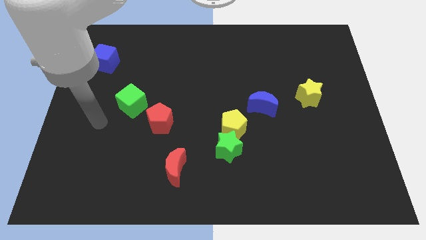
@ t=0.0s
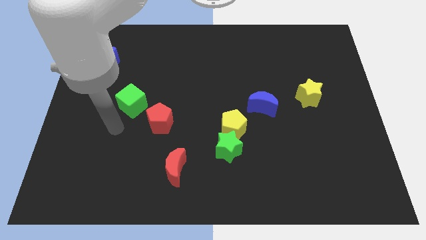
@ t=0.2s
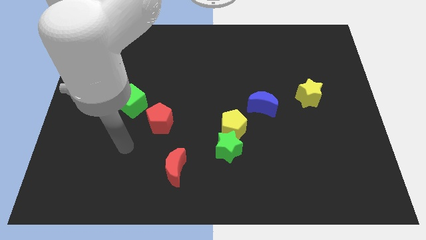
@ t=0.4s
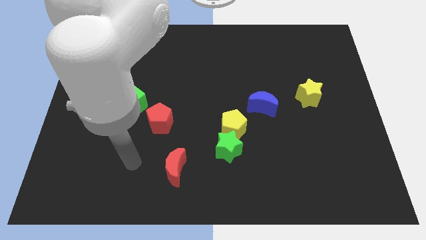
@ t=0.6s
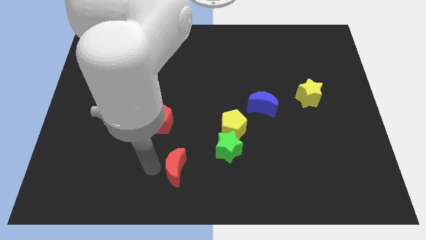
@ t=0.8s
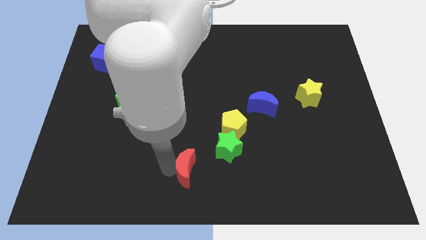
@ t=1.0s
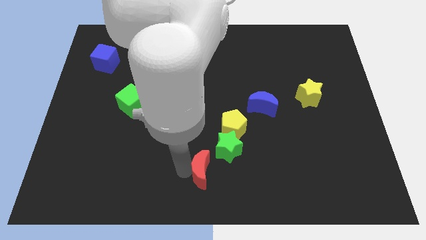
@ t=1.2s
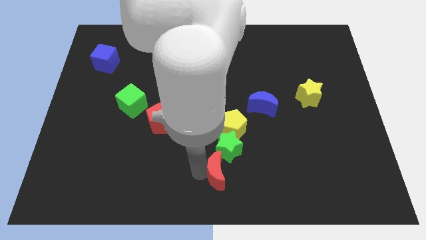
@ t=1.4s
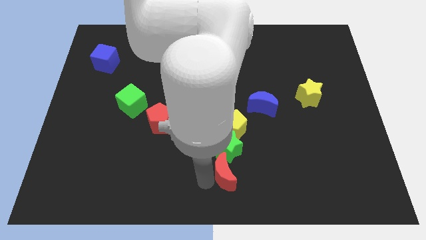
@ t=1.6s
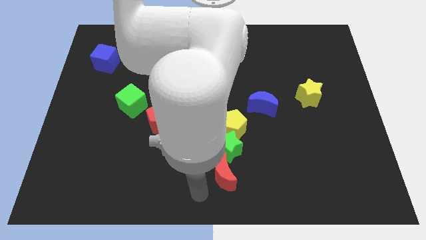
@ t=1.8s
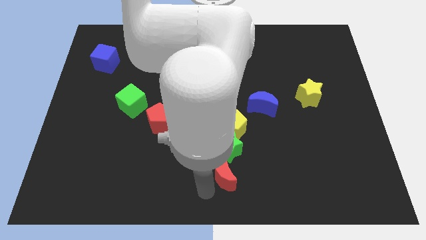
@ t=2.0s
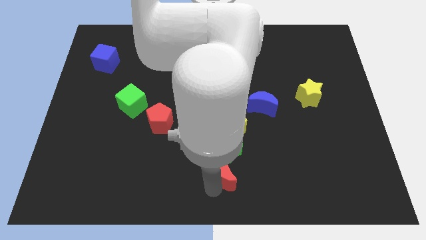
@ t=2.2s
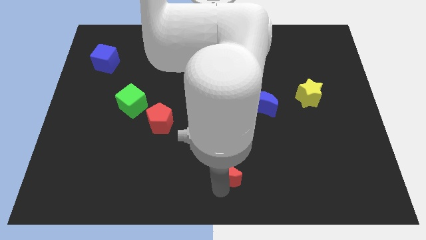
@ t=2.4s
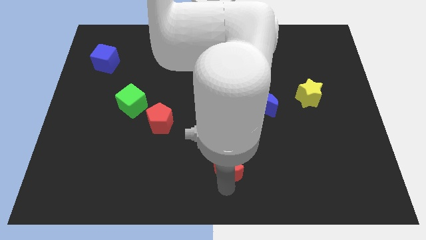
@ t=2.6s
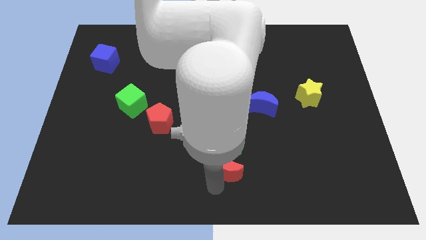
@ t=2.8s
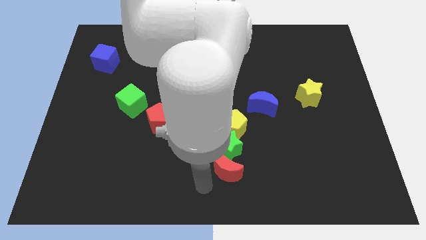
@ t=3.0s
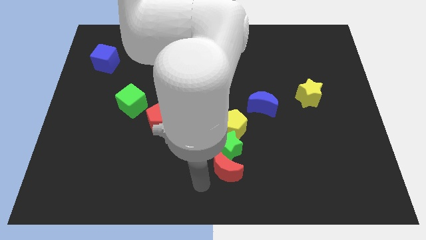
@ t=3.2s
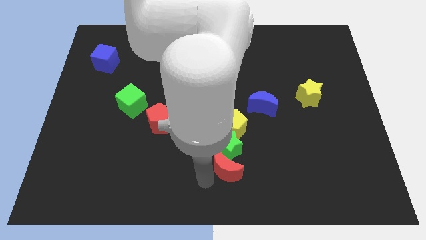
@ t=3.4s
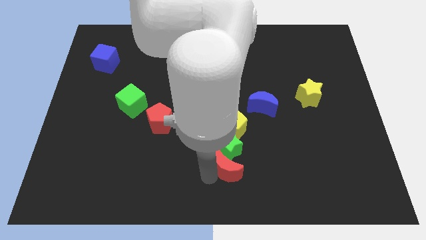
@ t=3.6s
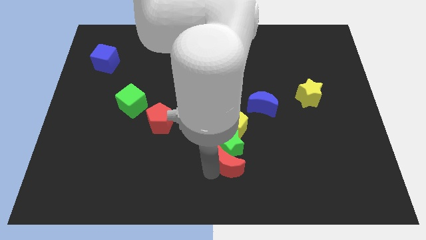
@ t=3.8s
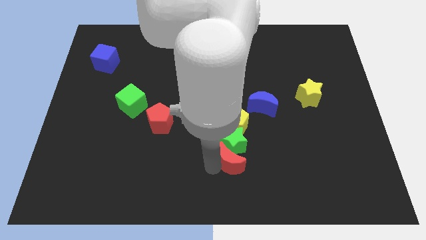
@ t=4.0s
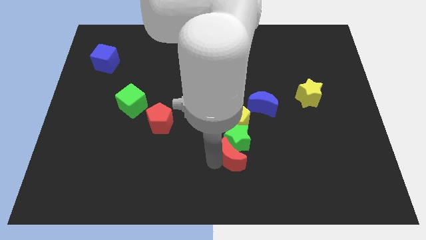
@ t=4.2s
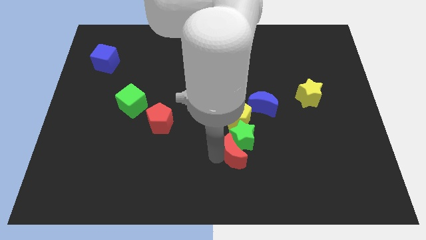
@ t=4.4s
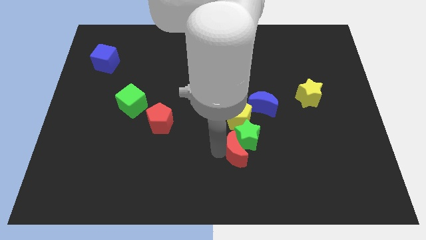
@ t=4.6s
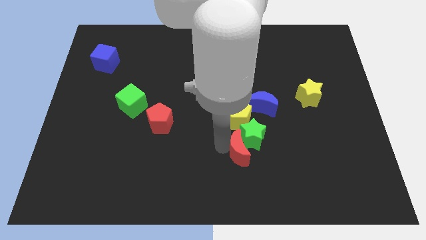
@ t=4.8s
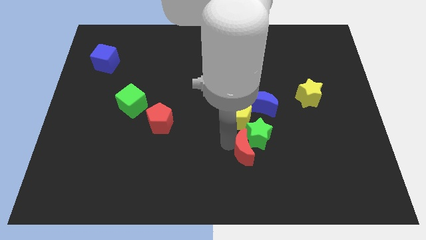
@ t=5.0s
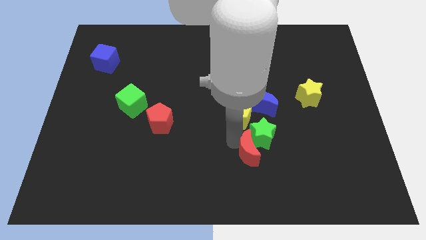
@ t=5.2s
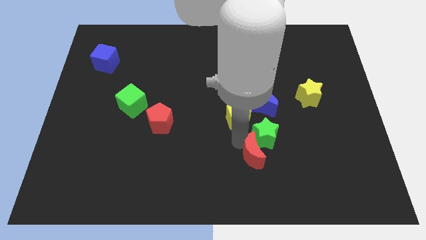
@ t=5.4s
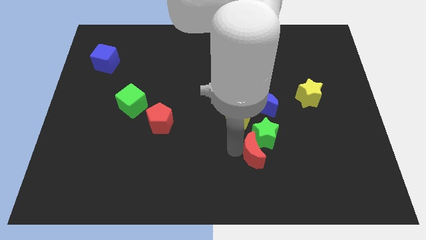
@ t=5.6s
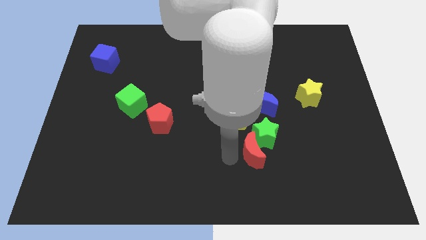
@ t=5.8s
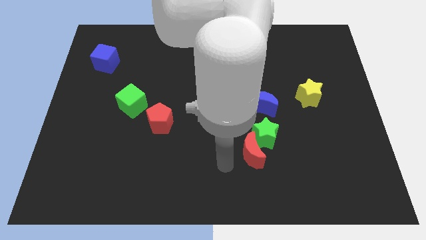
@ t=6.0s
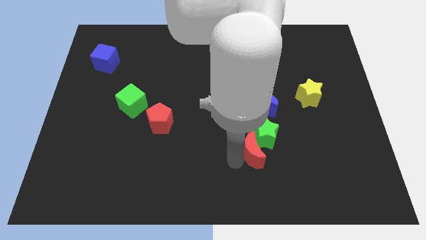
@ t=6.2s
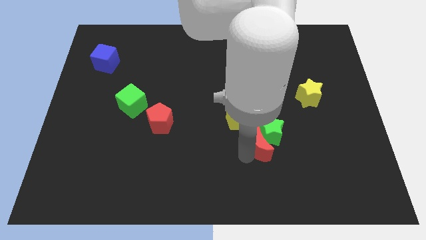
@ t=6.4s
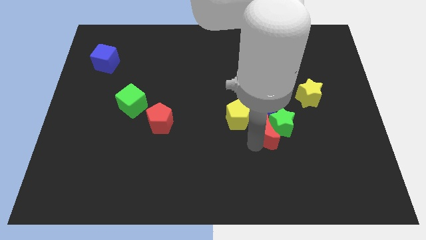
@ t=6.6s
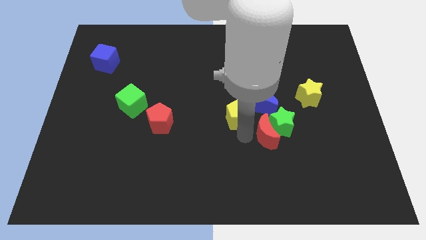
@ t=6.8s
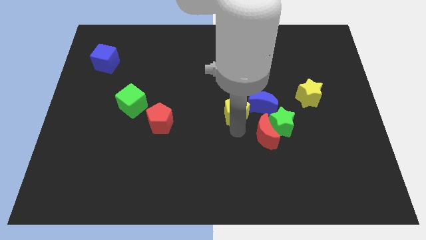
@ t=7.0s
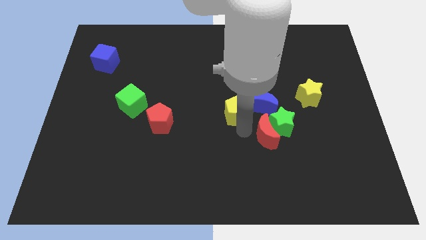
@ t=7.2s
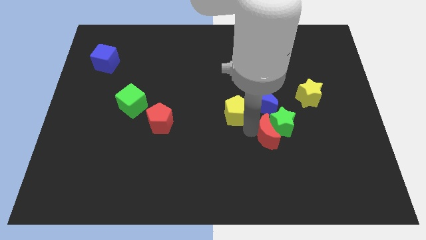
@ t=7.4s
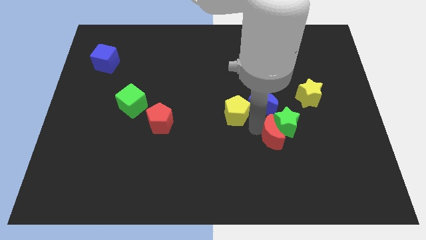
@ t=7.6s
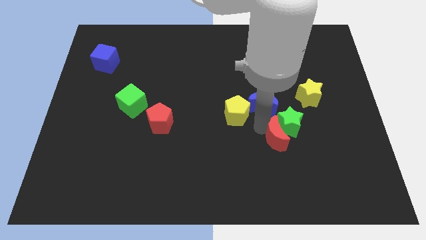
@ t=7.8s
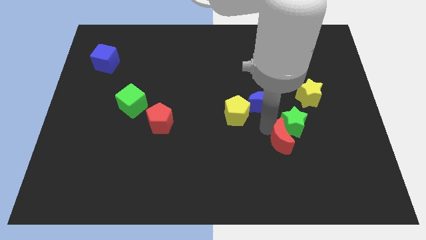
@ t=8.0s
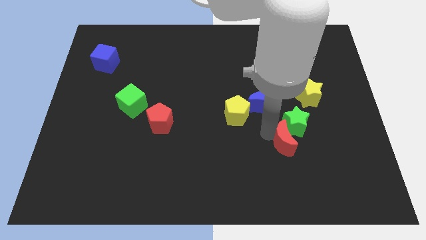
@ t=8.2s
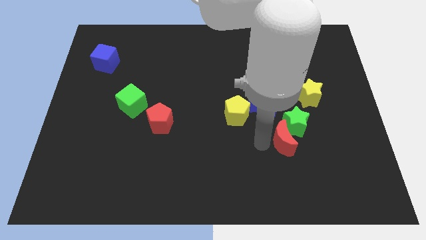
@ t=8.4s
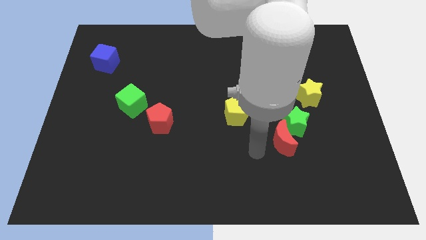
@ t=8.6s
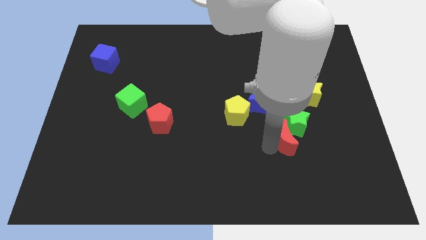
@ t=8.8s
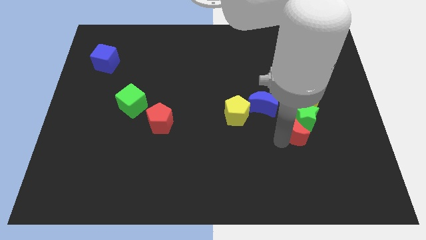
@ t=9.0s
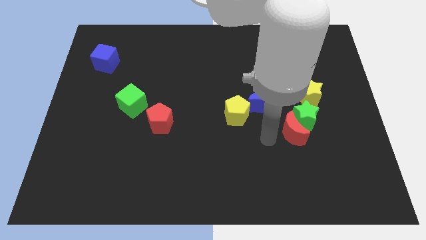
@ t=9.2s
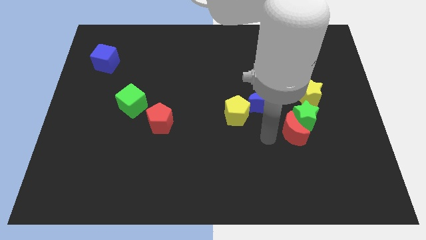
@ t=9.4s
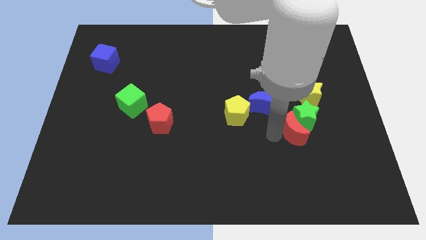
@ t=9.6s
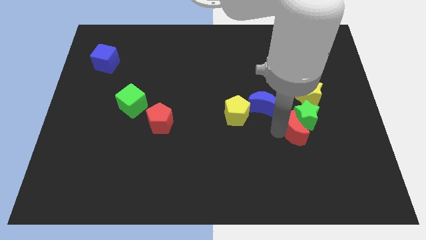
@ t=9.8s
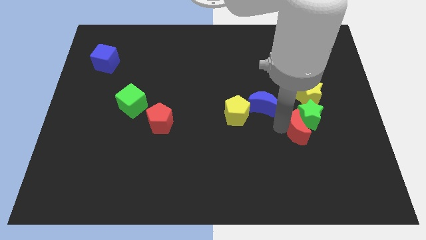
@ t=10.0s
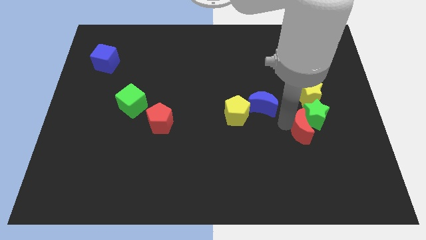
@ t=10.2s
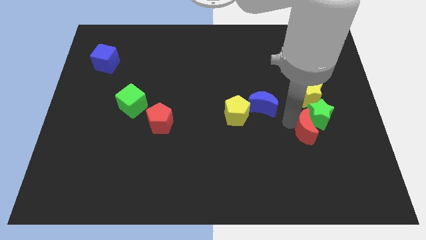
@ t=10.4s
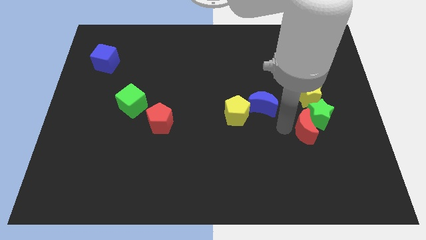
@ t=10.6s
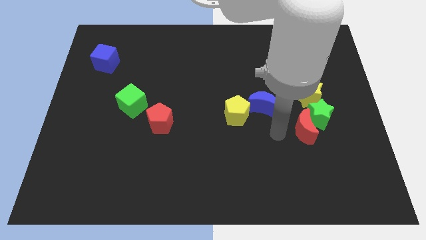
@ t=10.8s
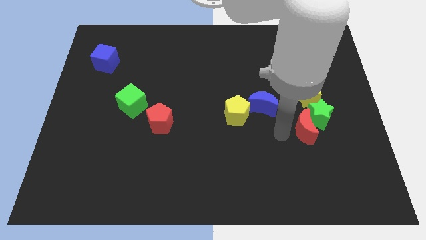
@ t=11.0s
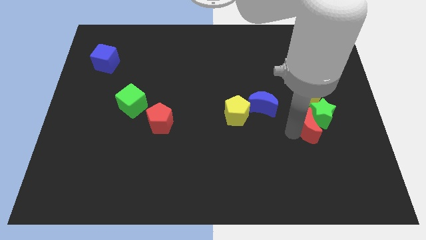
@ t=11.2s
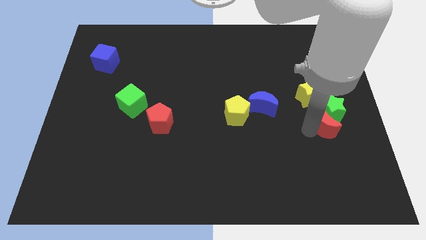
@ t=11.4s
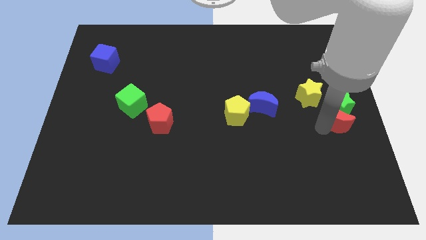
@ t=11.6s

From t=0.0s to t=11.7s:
put the red moon to the center right
